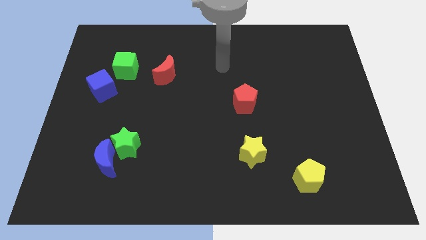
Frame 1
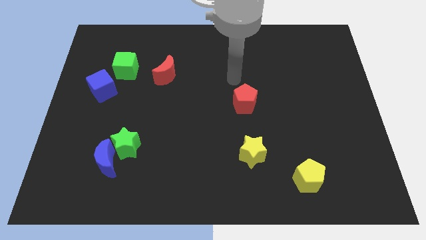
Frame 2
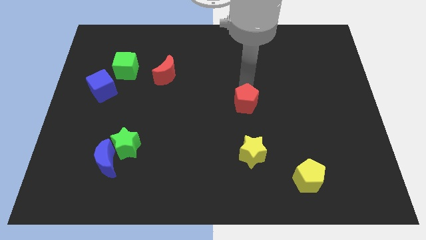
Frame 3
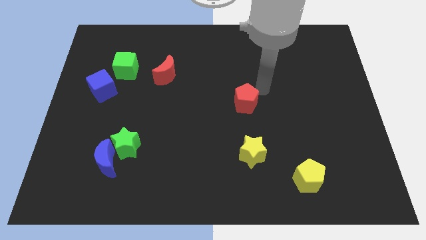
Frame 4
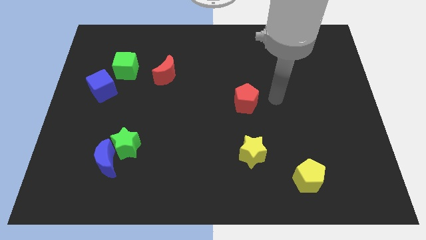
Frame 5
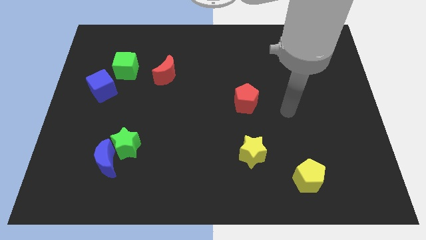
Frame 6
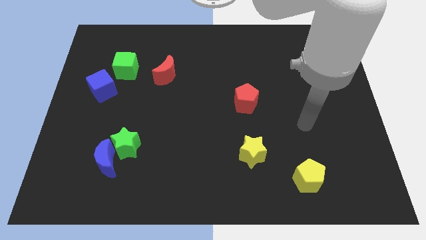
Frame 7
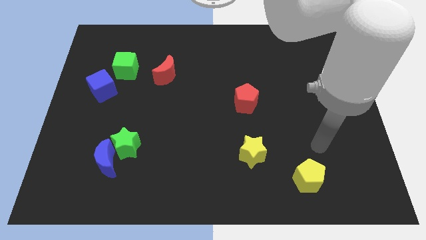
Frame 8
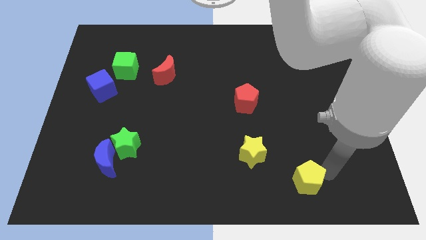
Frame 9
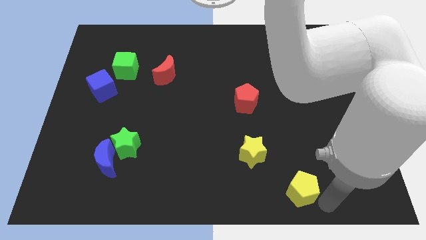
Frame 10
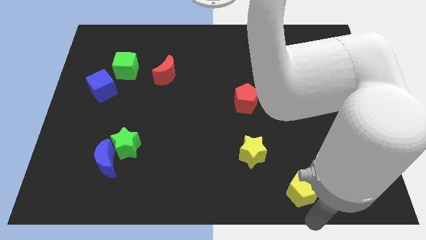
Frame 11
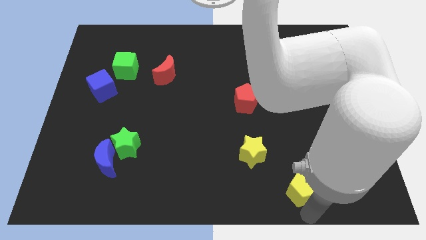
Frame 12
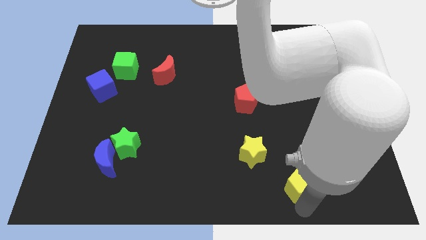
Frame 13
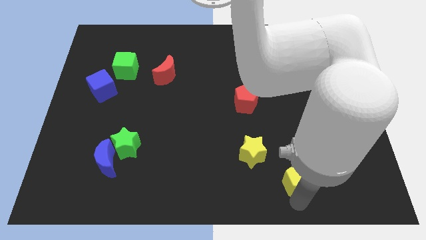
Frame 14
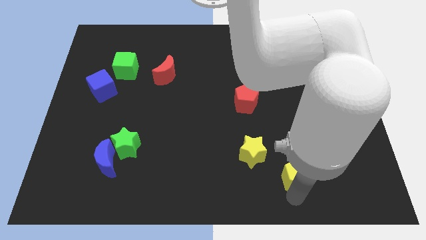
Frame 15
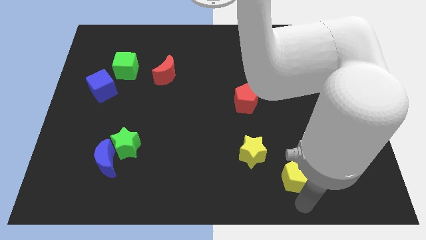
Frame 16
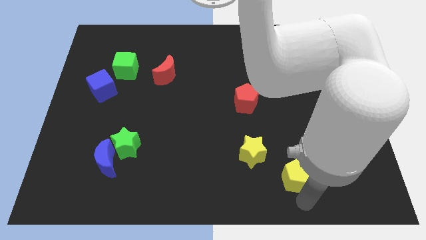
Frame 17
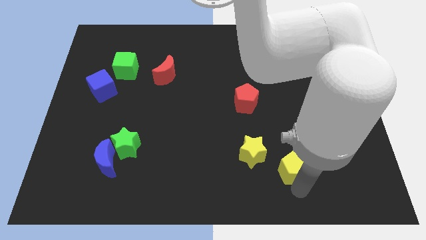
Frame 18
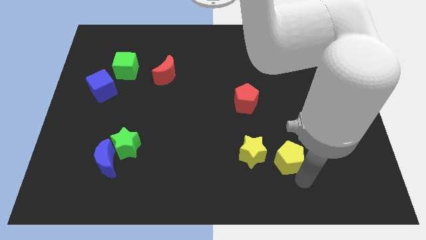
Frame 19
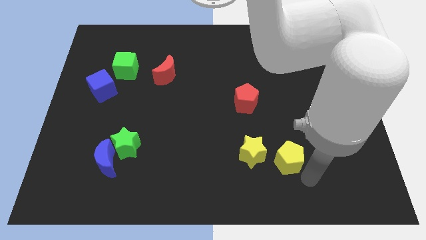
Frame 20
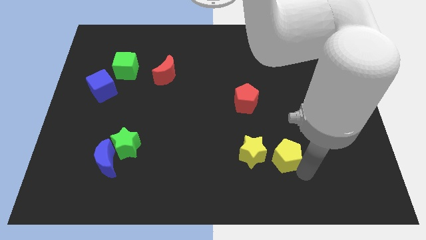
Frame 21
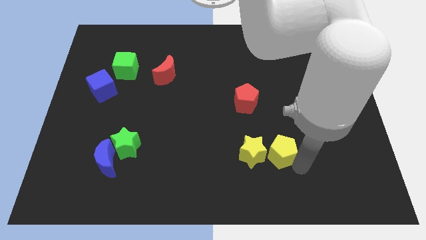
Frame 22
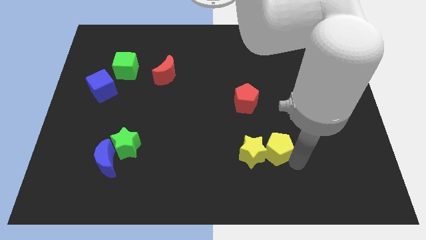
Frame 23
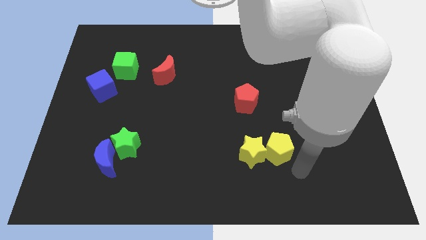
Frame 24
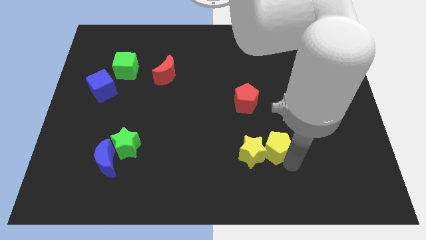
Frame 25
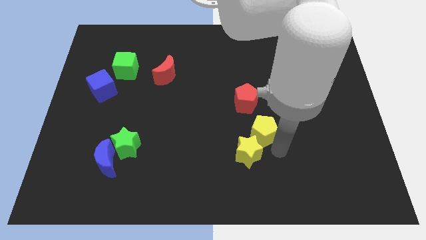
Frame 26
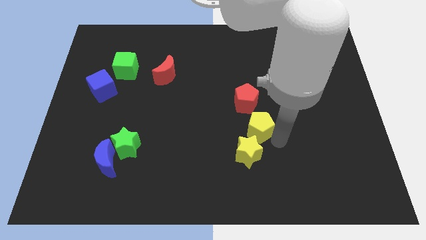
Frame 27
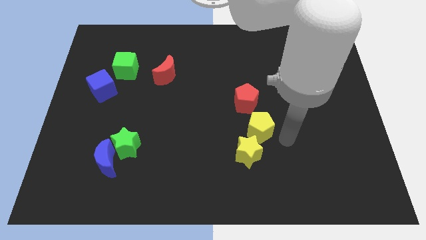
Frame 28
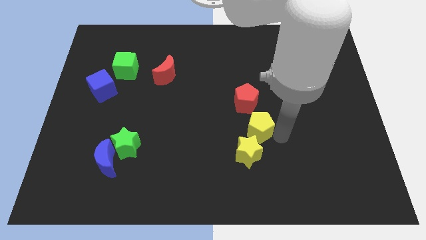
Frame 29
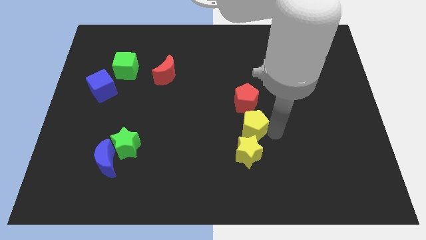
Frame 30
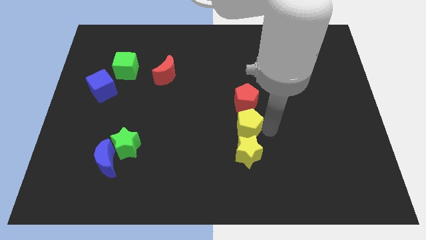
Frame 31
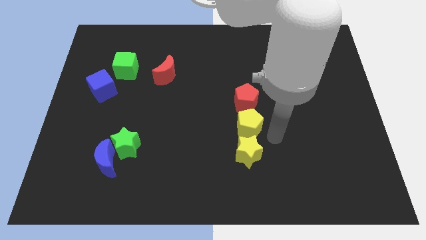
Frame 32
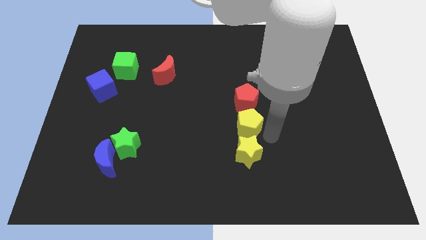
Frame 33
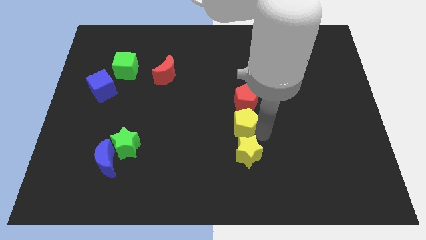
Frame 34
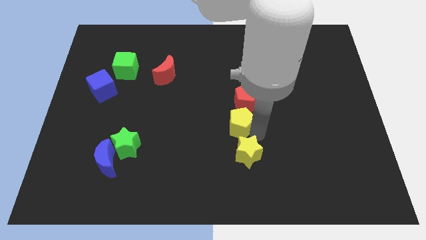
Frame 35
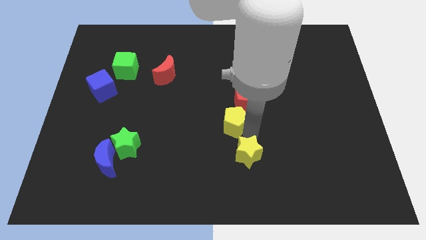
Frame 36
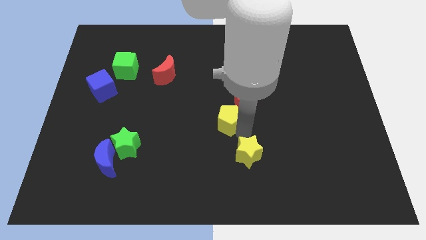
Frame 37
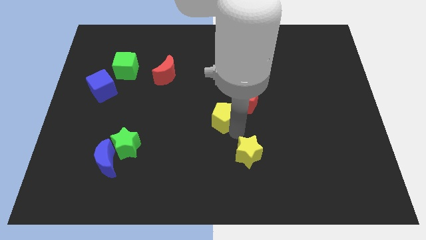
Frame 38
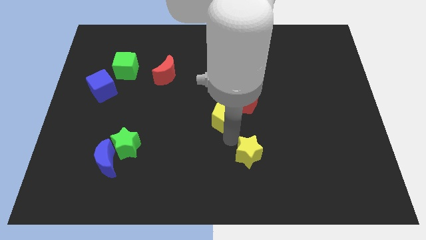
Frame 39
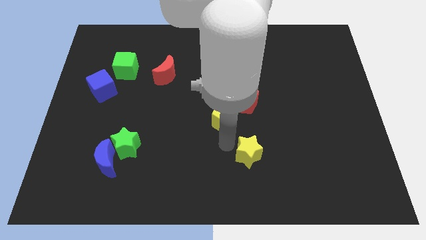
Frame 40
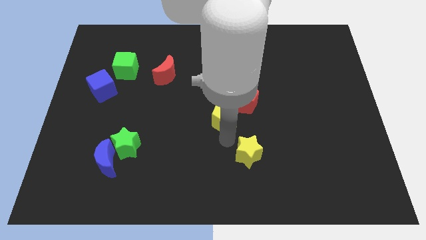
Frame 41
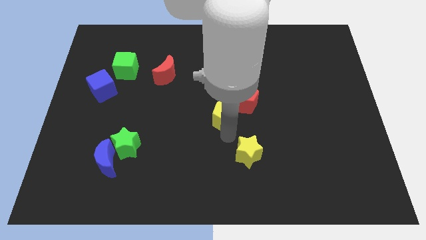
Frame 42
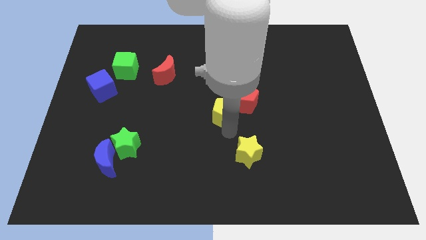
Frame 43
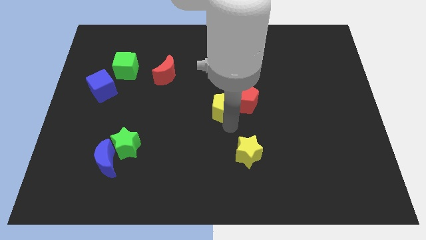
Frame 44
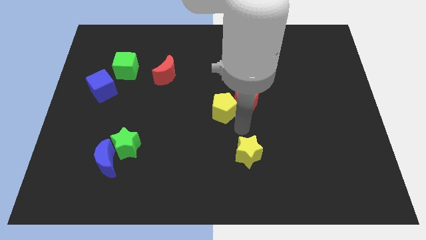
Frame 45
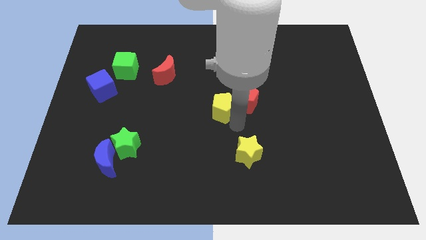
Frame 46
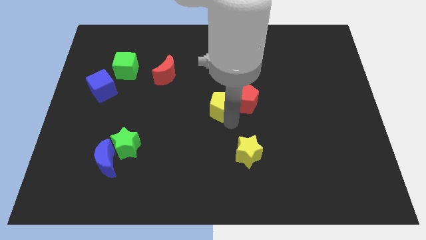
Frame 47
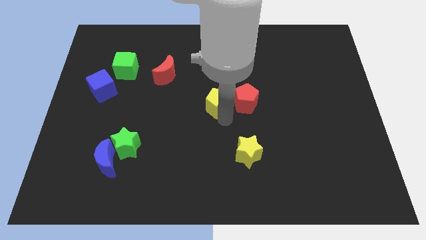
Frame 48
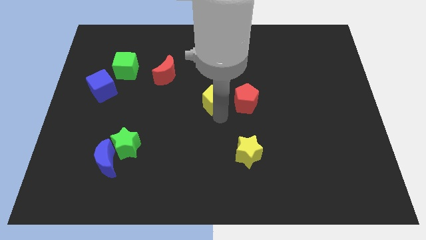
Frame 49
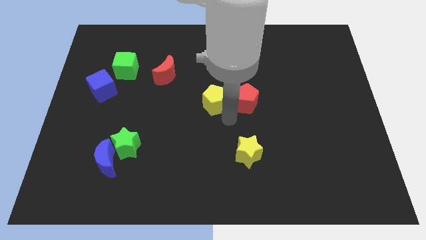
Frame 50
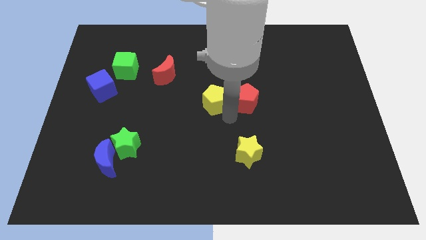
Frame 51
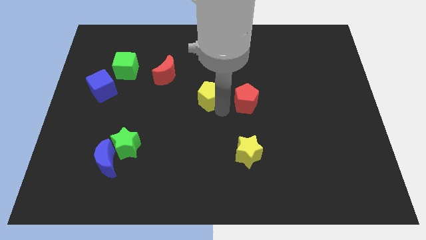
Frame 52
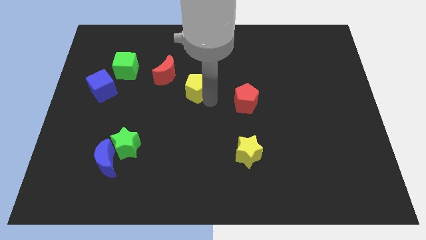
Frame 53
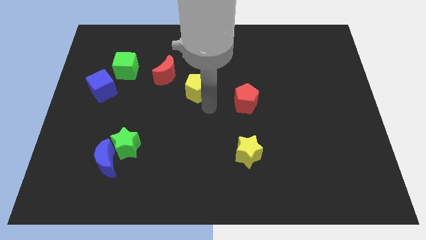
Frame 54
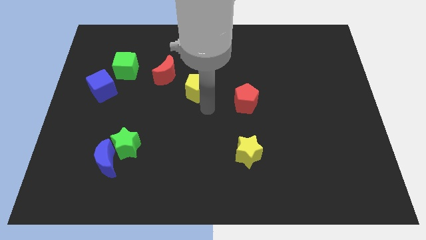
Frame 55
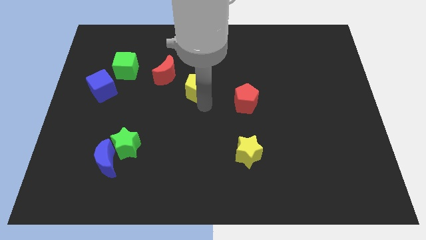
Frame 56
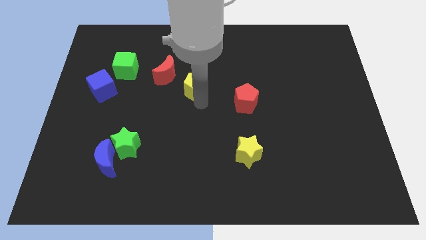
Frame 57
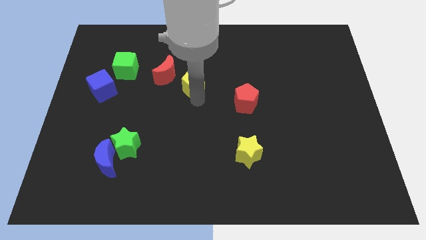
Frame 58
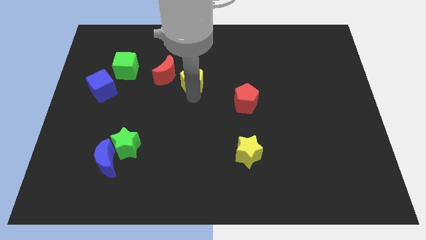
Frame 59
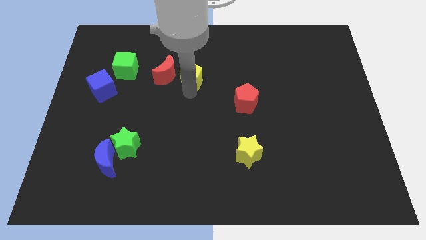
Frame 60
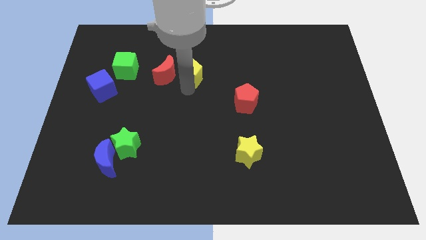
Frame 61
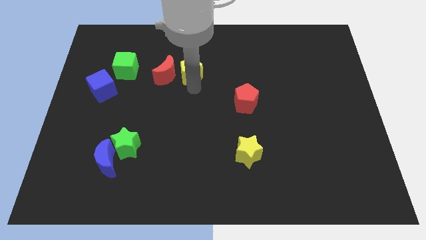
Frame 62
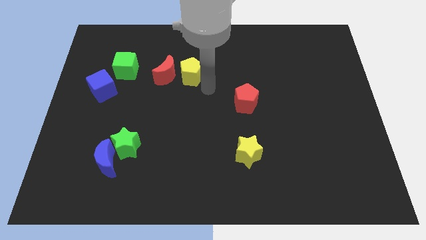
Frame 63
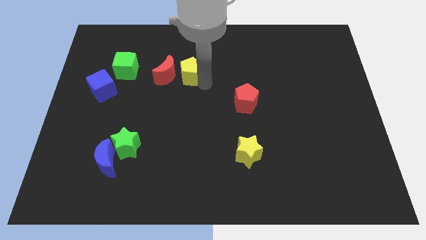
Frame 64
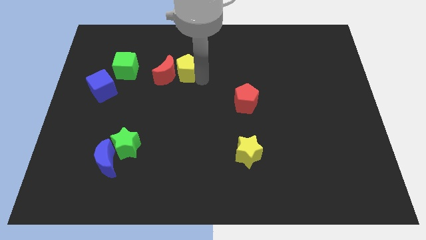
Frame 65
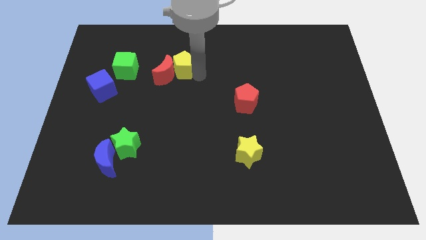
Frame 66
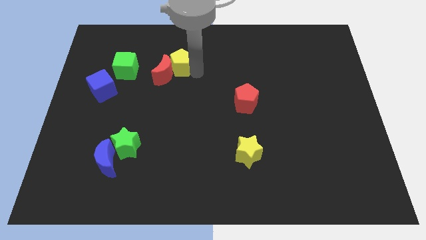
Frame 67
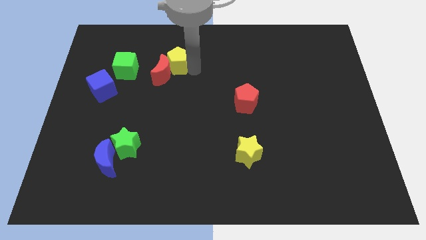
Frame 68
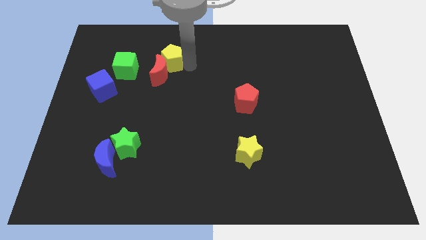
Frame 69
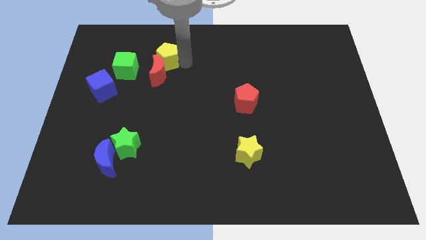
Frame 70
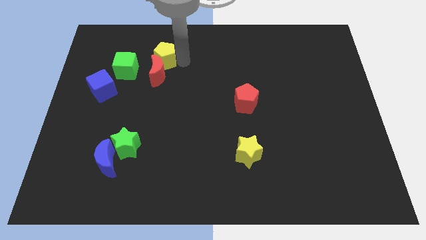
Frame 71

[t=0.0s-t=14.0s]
push the yellow pentagon to the top right of the green cube
